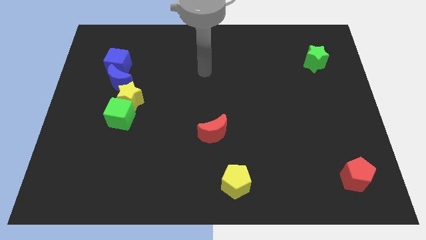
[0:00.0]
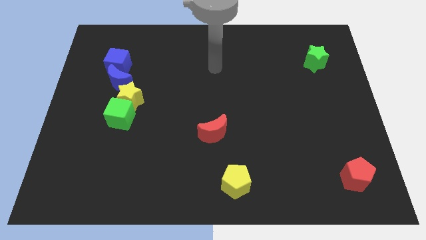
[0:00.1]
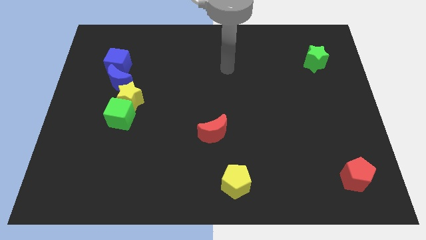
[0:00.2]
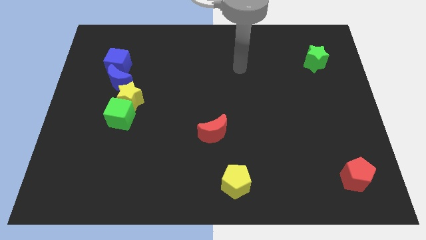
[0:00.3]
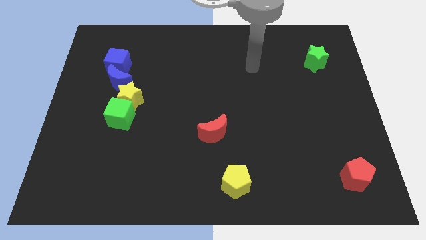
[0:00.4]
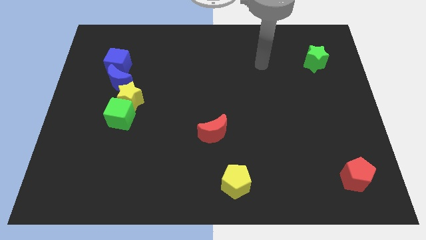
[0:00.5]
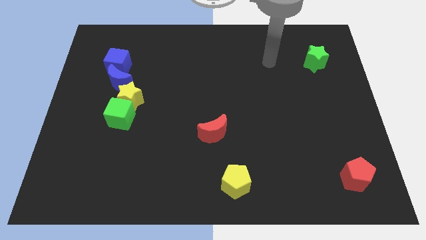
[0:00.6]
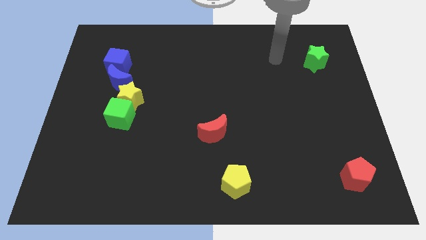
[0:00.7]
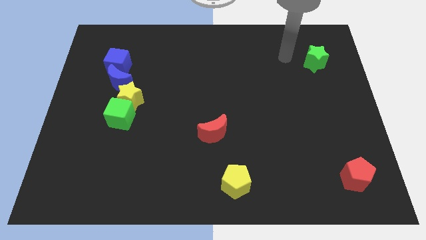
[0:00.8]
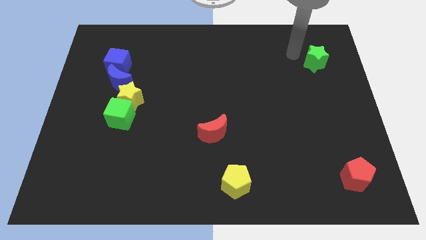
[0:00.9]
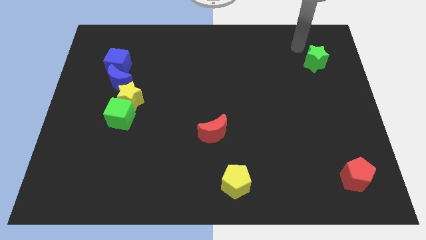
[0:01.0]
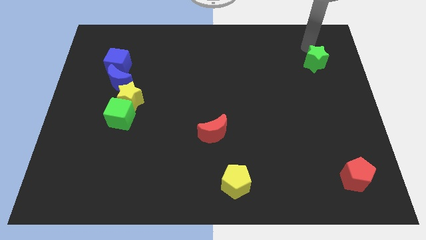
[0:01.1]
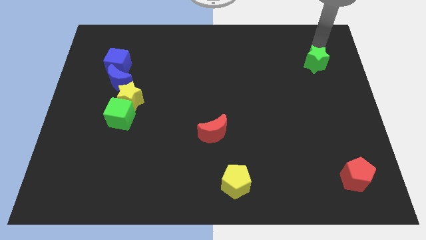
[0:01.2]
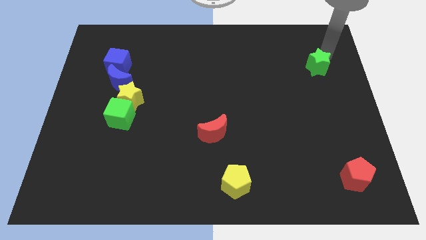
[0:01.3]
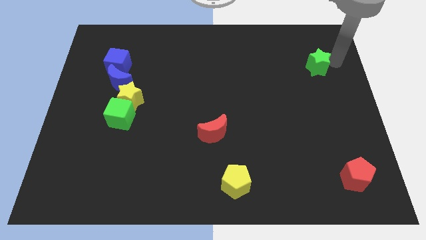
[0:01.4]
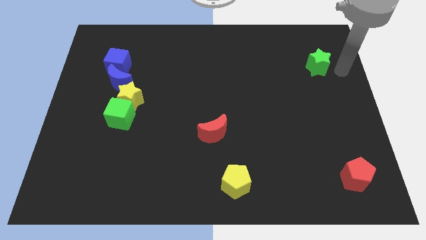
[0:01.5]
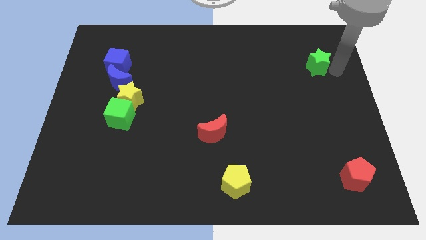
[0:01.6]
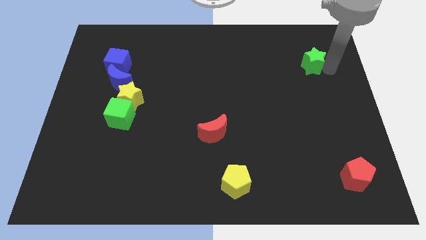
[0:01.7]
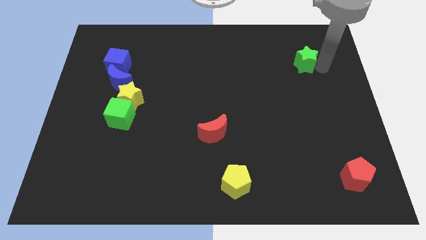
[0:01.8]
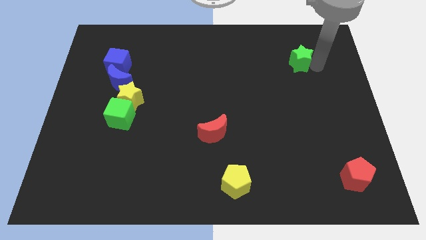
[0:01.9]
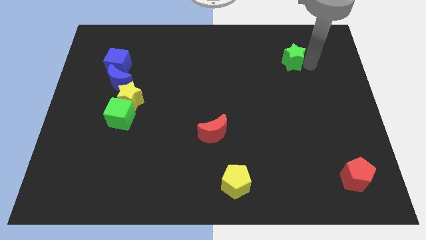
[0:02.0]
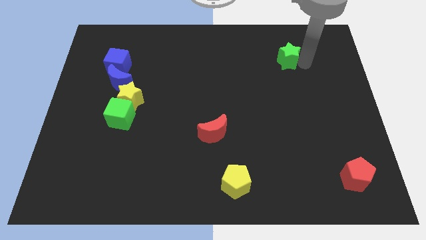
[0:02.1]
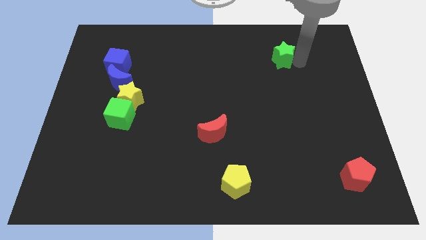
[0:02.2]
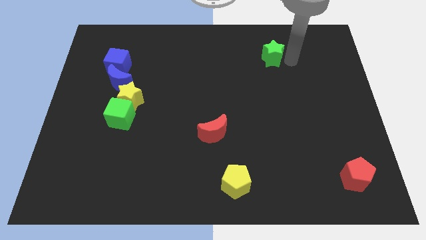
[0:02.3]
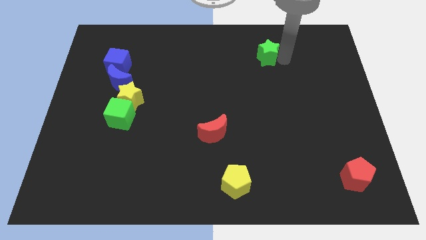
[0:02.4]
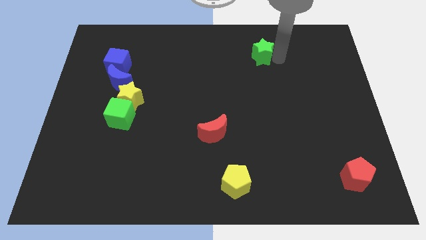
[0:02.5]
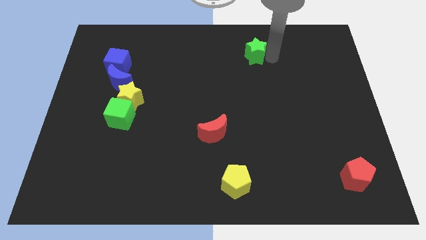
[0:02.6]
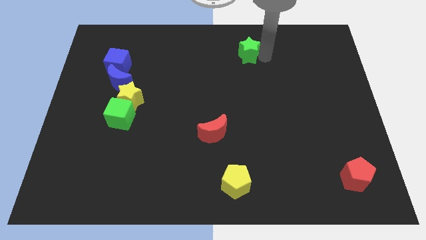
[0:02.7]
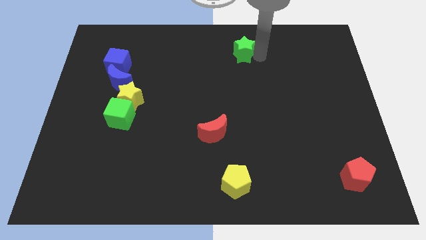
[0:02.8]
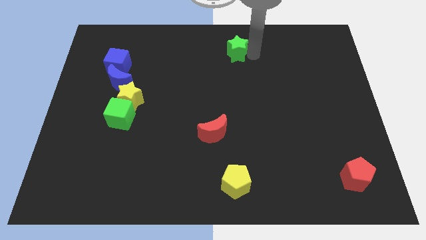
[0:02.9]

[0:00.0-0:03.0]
move the green star left

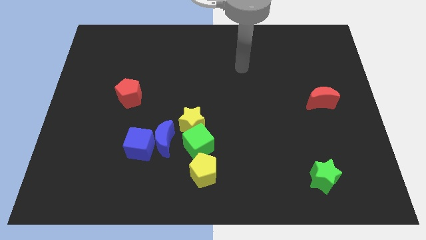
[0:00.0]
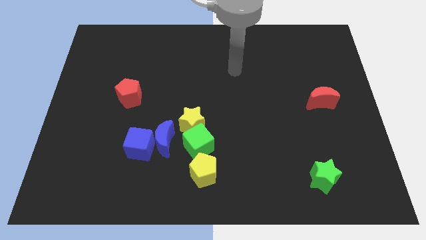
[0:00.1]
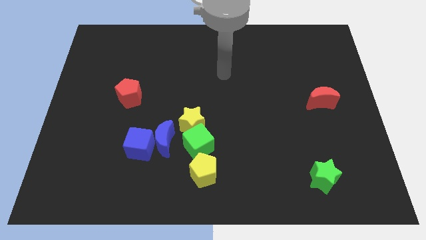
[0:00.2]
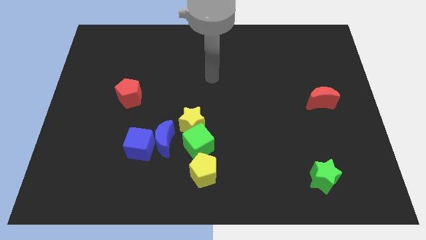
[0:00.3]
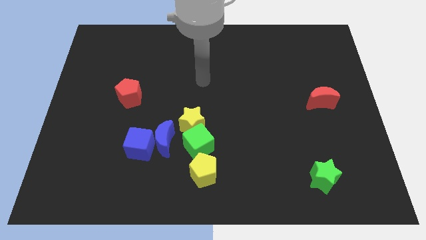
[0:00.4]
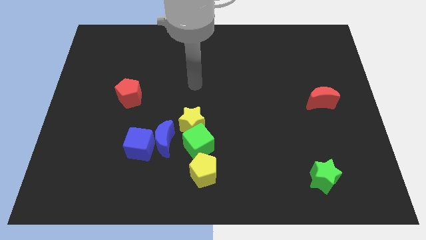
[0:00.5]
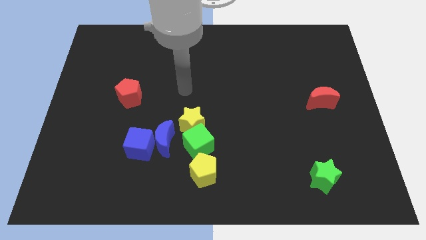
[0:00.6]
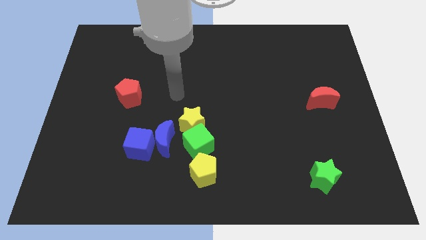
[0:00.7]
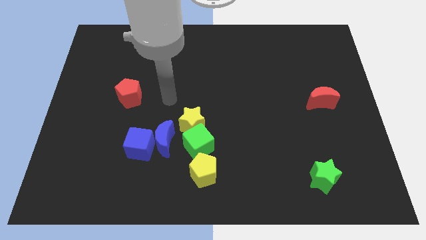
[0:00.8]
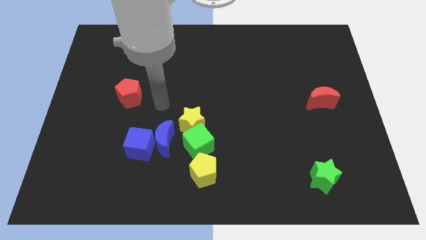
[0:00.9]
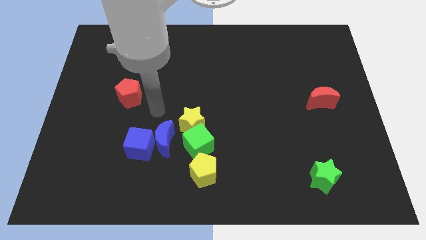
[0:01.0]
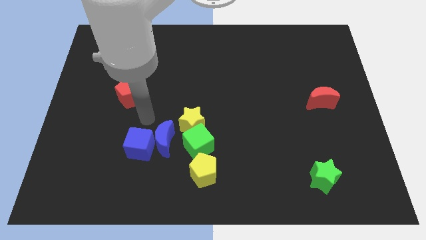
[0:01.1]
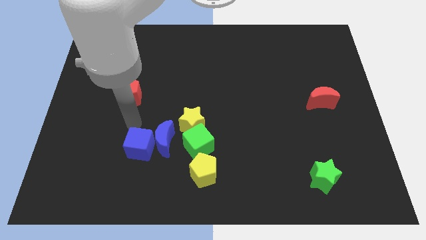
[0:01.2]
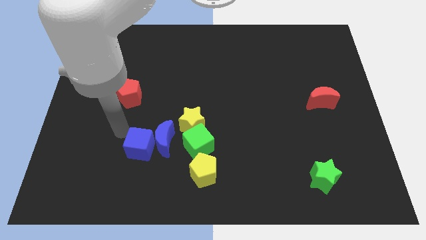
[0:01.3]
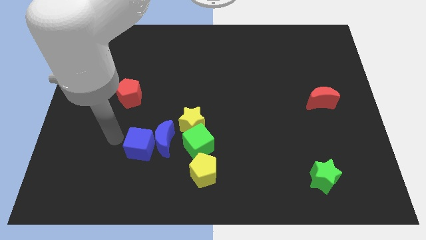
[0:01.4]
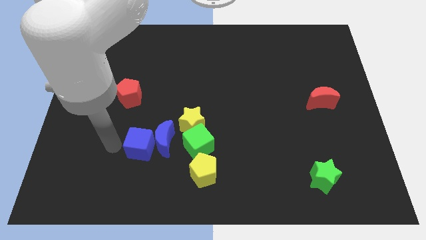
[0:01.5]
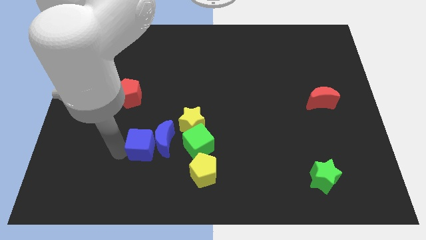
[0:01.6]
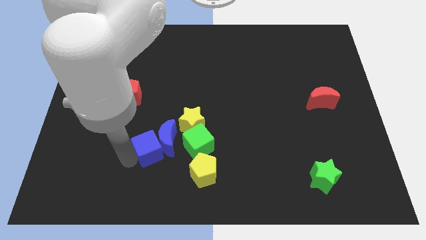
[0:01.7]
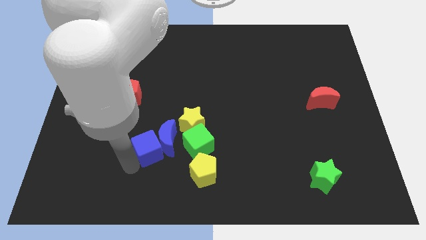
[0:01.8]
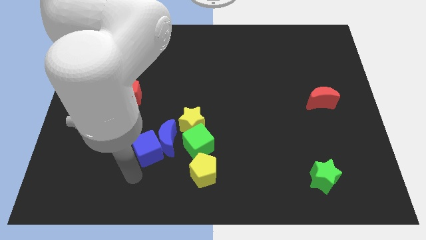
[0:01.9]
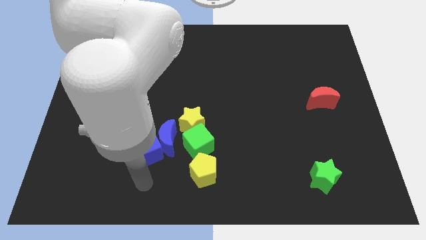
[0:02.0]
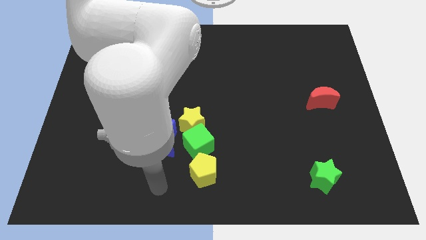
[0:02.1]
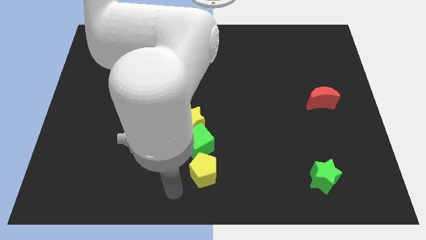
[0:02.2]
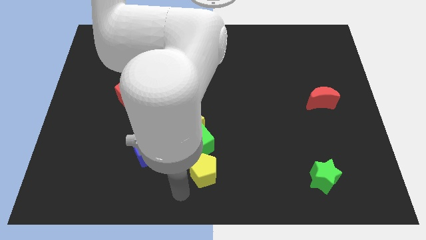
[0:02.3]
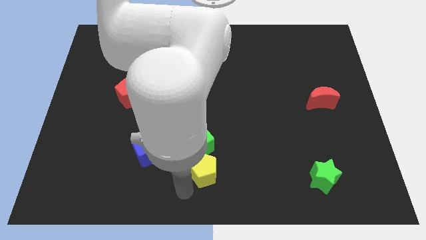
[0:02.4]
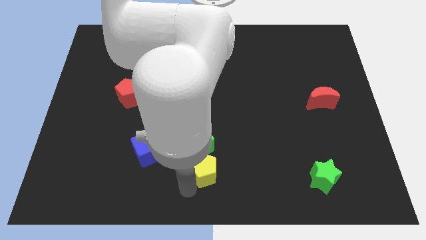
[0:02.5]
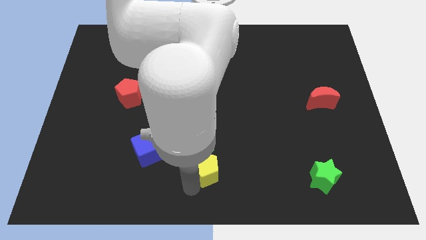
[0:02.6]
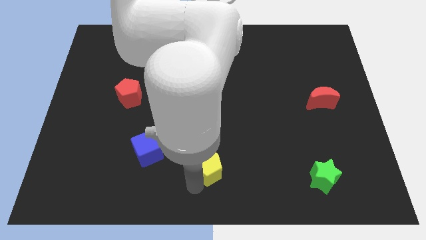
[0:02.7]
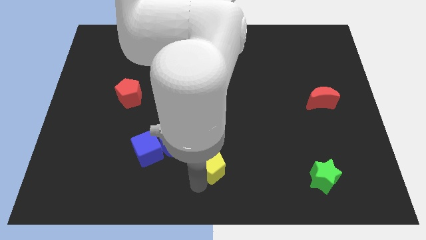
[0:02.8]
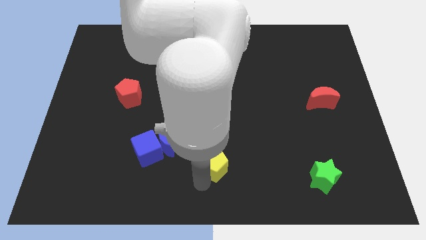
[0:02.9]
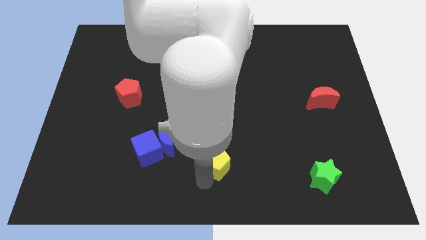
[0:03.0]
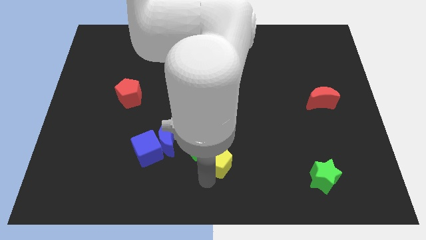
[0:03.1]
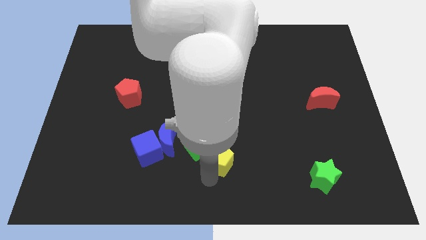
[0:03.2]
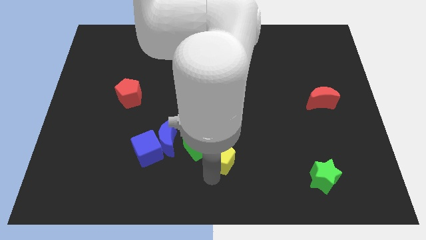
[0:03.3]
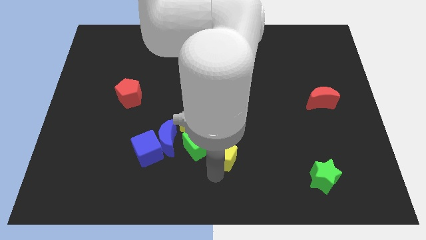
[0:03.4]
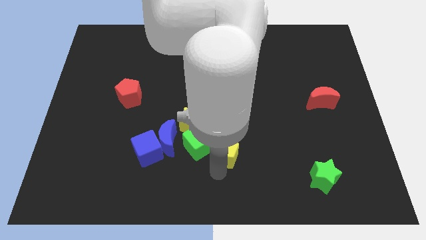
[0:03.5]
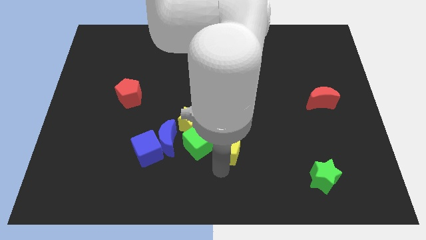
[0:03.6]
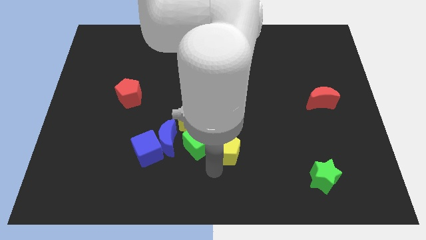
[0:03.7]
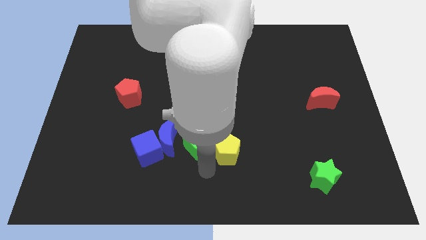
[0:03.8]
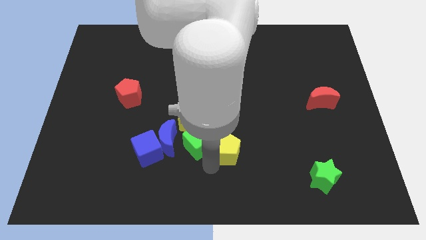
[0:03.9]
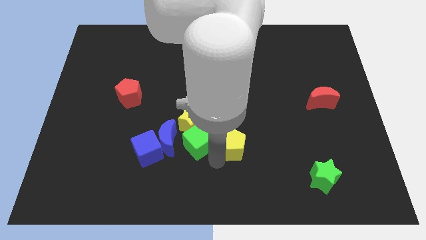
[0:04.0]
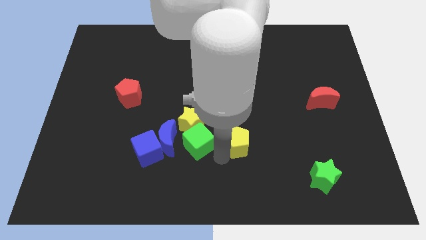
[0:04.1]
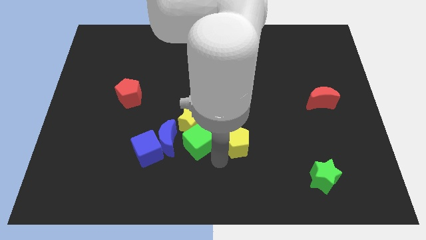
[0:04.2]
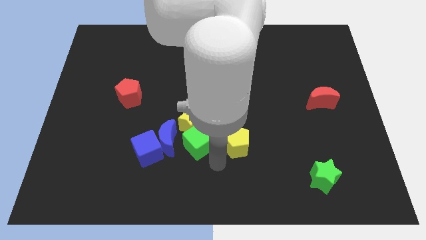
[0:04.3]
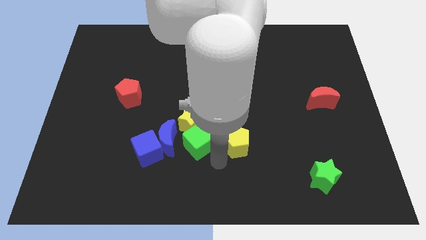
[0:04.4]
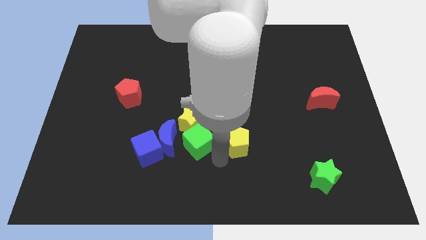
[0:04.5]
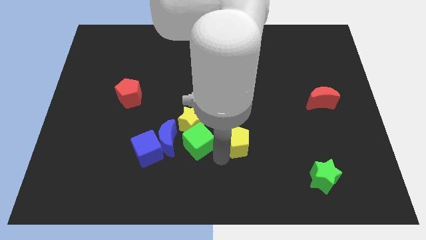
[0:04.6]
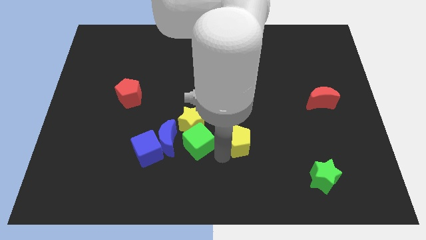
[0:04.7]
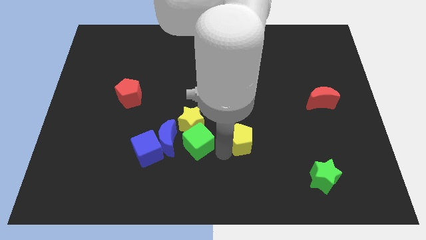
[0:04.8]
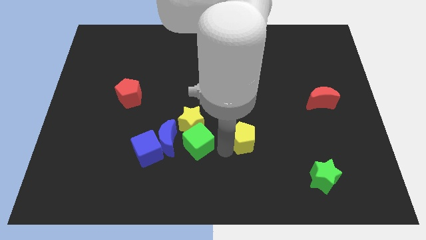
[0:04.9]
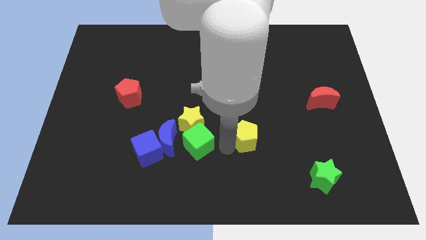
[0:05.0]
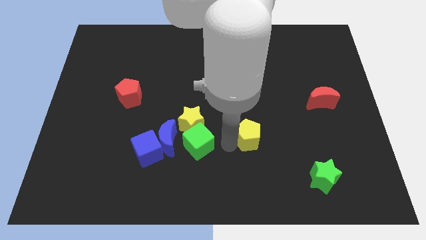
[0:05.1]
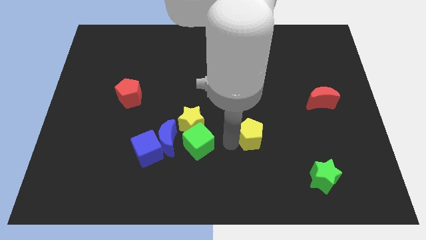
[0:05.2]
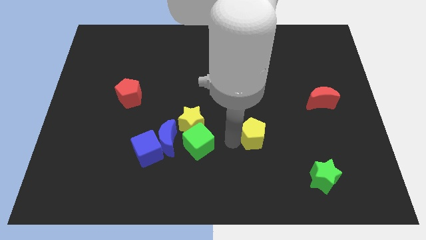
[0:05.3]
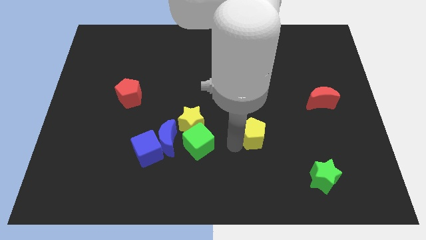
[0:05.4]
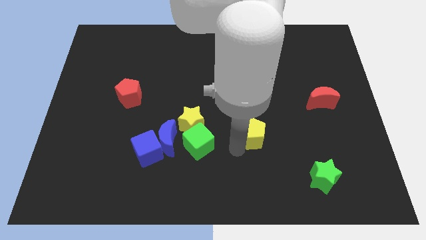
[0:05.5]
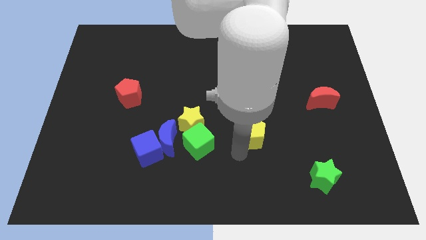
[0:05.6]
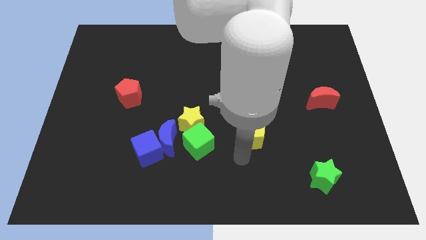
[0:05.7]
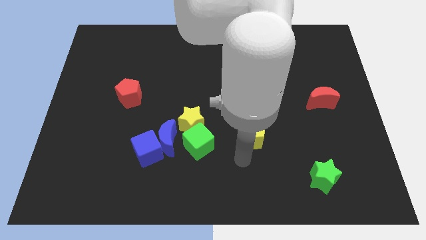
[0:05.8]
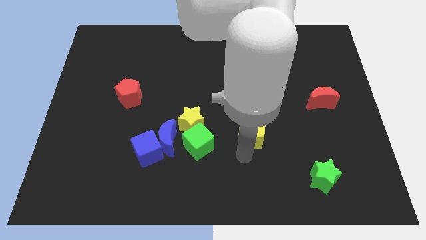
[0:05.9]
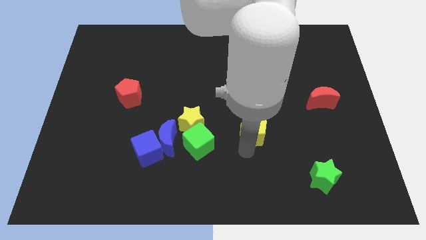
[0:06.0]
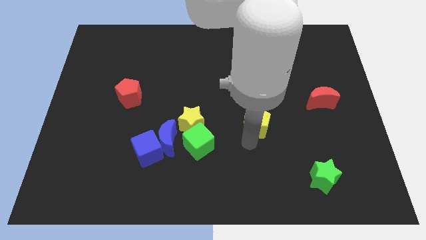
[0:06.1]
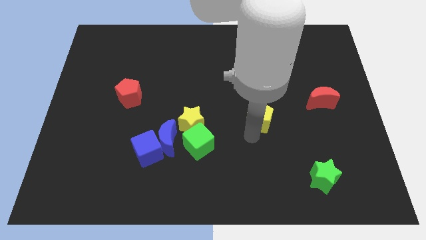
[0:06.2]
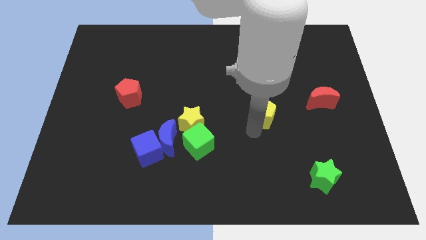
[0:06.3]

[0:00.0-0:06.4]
push the yellow pentagon upwards and to the right diagonally
